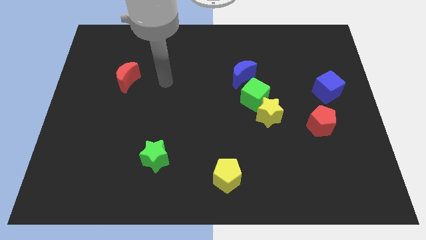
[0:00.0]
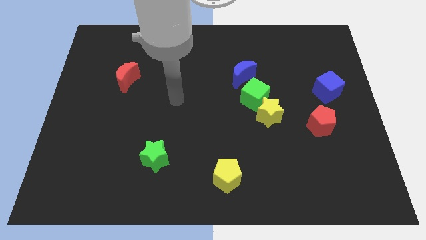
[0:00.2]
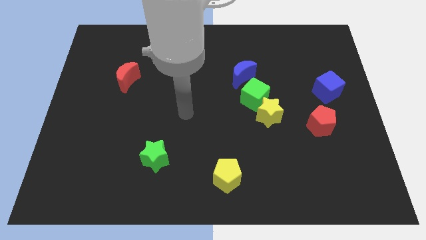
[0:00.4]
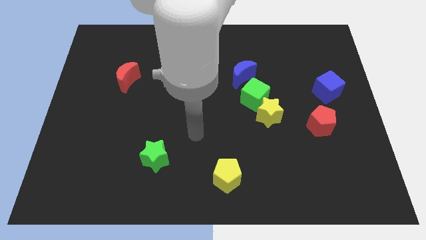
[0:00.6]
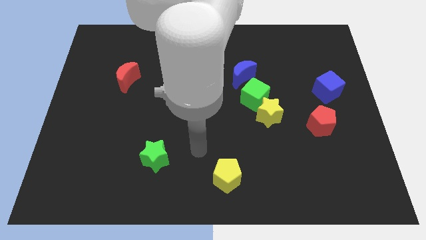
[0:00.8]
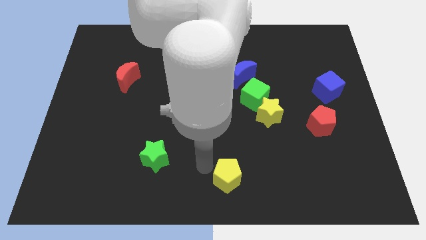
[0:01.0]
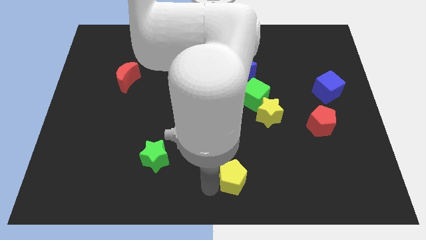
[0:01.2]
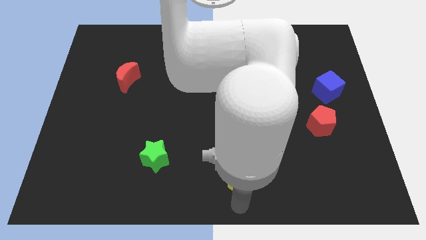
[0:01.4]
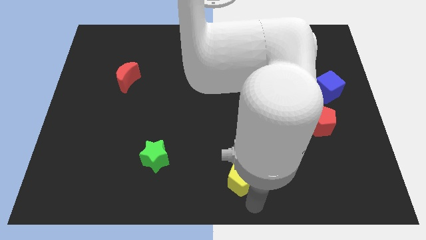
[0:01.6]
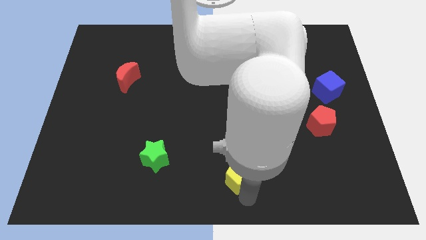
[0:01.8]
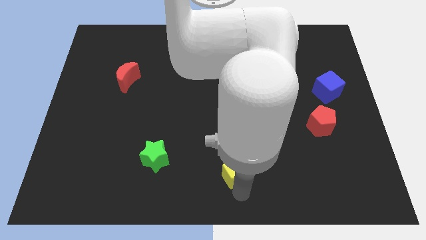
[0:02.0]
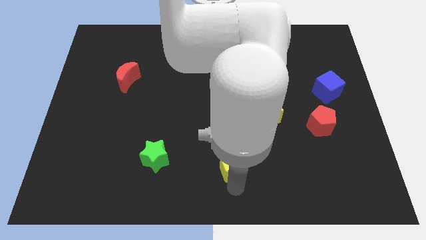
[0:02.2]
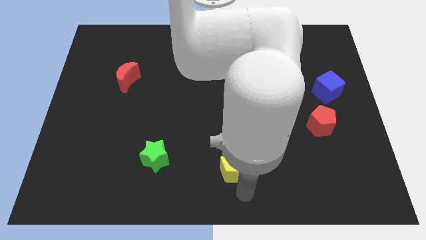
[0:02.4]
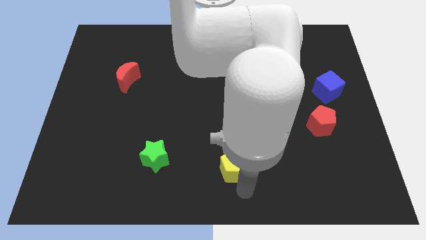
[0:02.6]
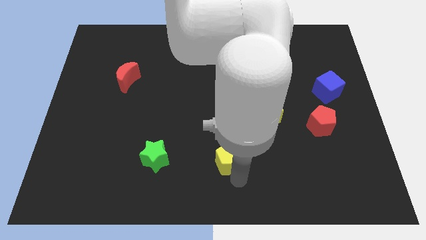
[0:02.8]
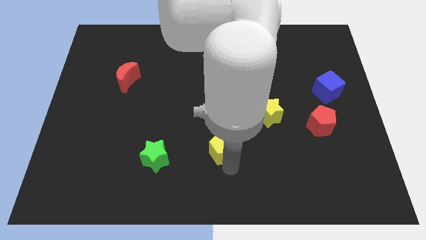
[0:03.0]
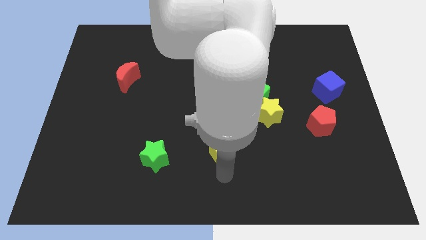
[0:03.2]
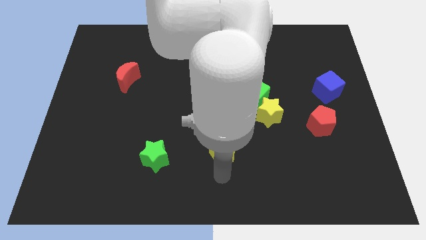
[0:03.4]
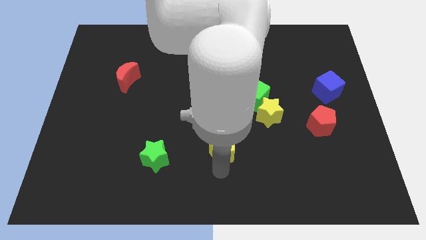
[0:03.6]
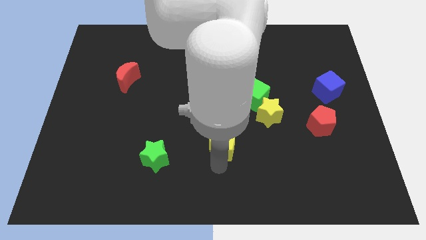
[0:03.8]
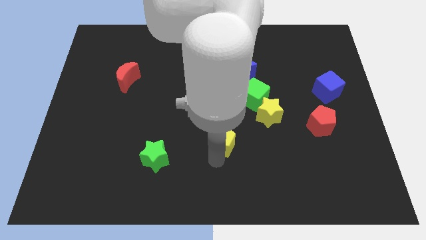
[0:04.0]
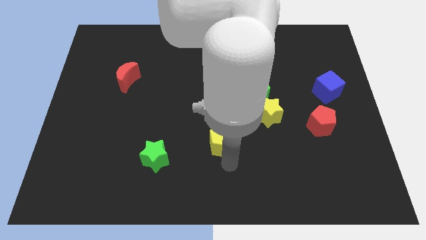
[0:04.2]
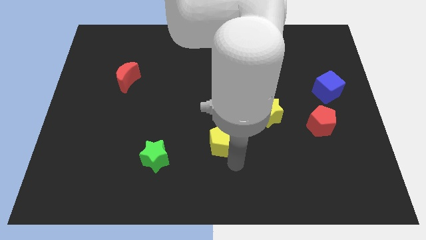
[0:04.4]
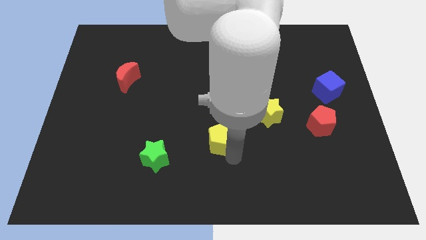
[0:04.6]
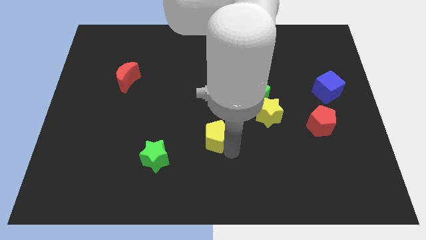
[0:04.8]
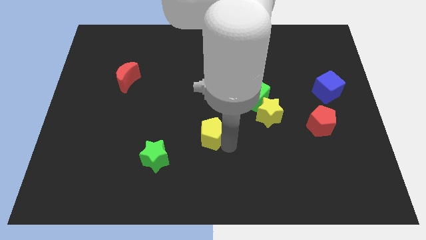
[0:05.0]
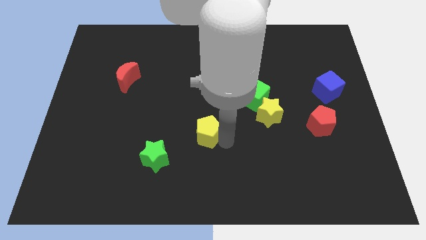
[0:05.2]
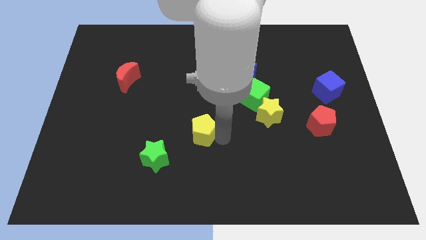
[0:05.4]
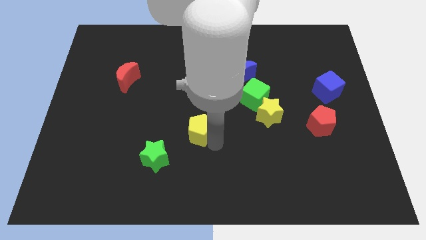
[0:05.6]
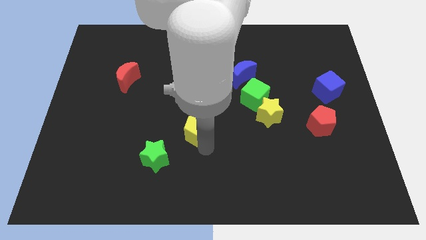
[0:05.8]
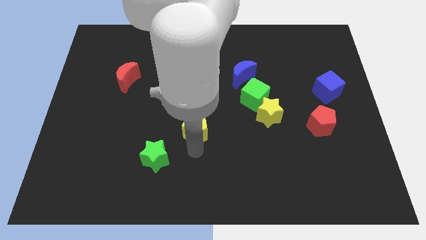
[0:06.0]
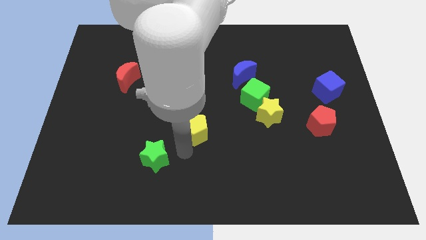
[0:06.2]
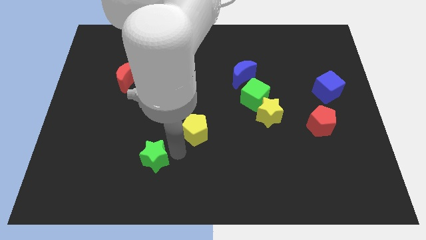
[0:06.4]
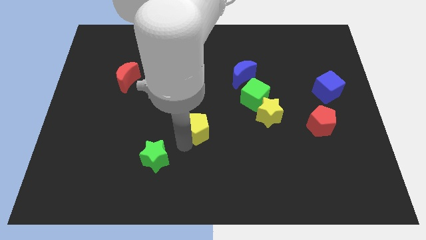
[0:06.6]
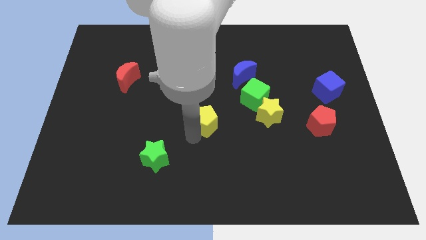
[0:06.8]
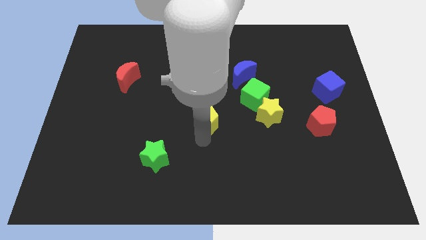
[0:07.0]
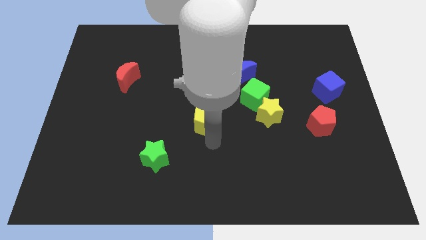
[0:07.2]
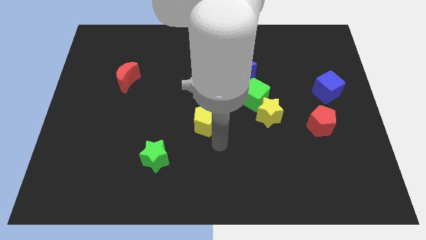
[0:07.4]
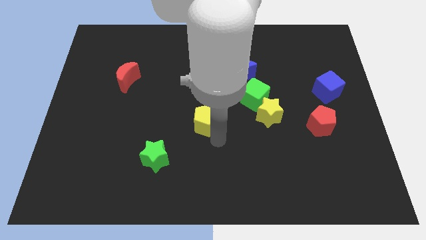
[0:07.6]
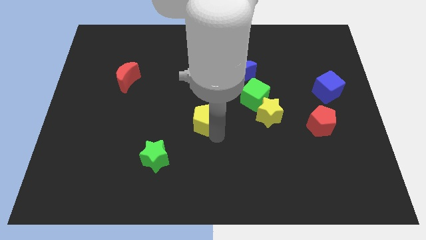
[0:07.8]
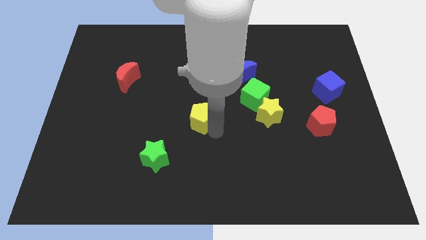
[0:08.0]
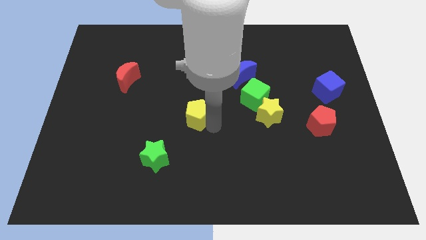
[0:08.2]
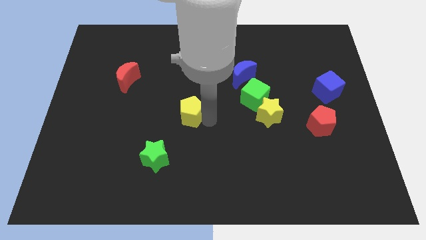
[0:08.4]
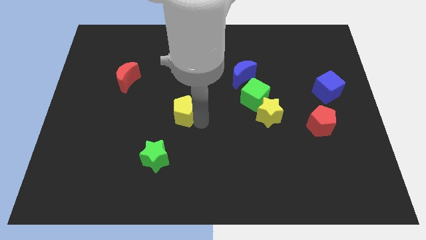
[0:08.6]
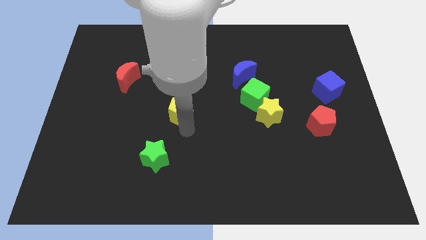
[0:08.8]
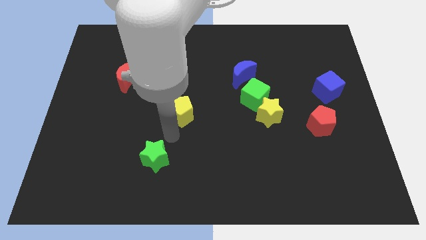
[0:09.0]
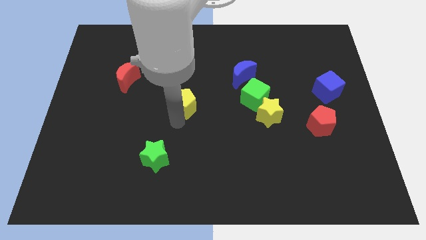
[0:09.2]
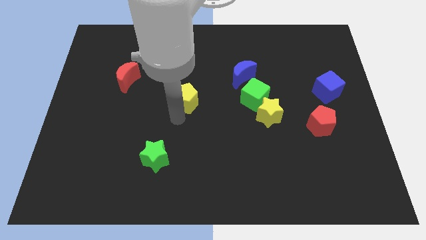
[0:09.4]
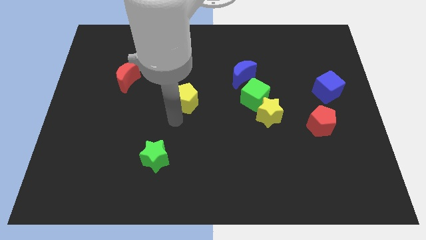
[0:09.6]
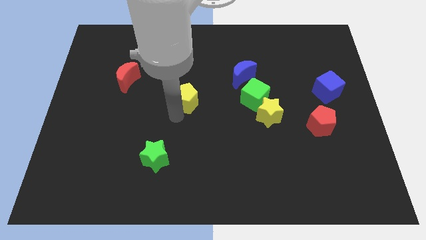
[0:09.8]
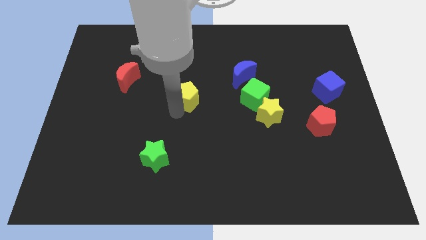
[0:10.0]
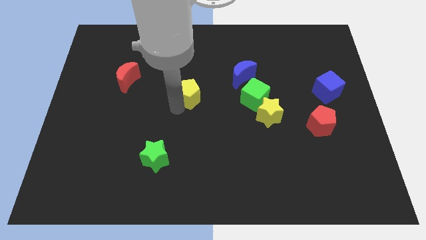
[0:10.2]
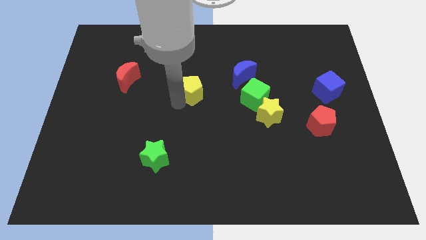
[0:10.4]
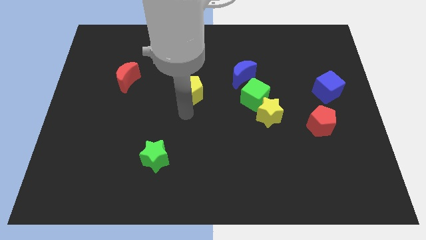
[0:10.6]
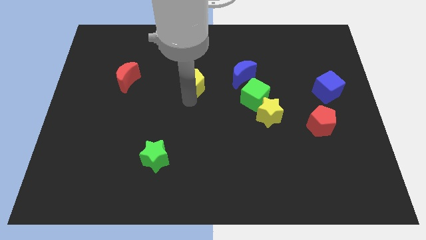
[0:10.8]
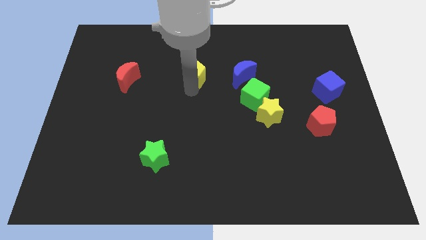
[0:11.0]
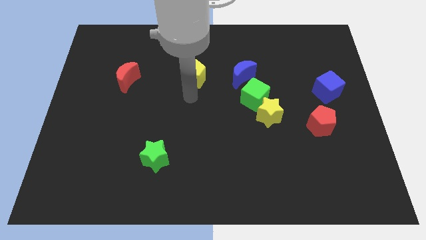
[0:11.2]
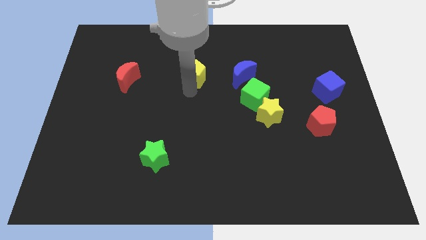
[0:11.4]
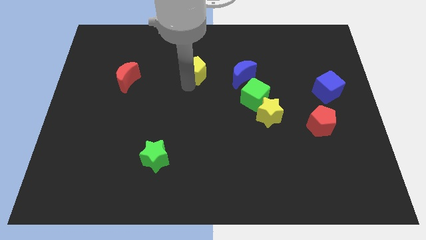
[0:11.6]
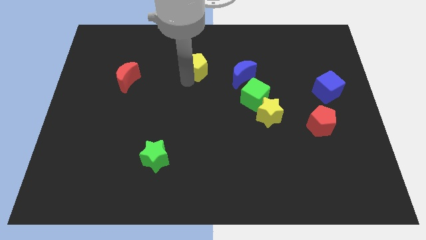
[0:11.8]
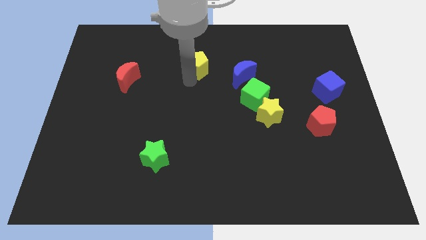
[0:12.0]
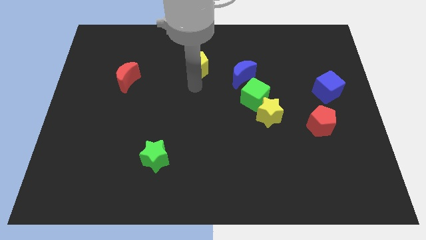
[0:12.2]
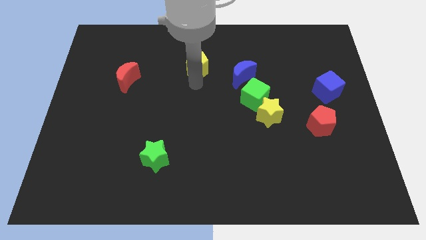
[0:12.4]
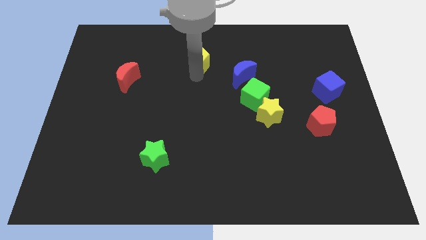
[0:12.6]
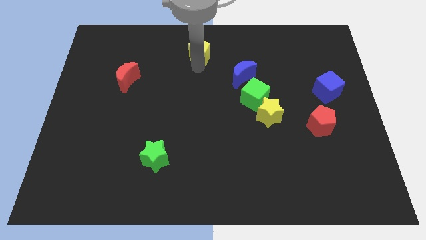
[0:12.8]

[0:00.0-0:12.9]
slide the yellow pentagon to the top
